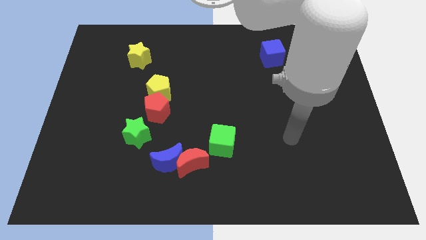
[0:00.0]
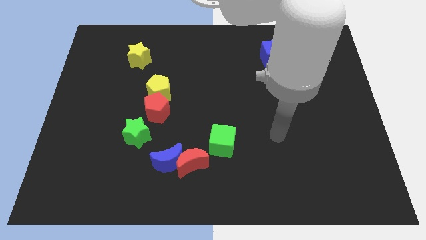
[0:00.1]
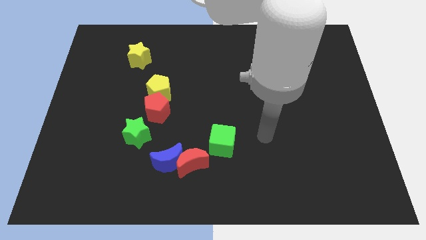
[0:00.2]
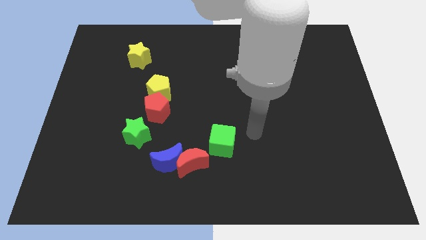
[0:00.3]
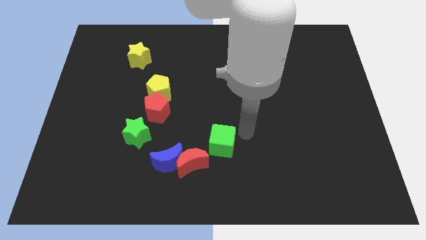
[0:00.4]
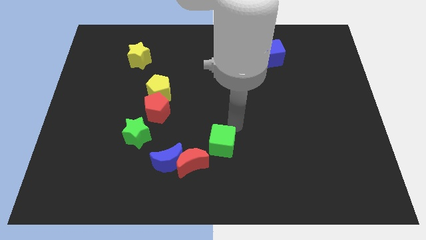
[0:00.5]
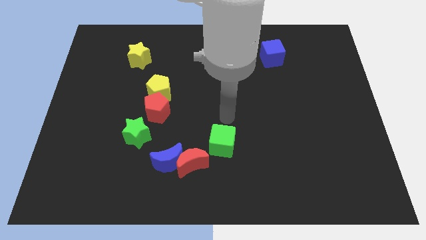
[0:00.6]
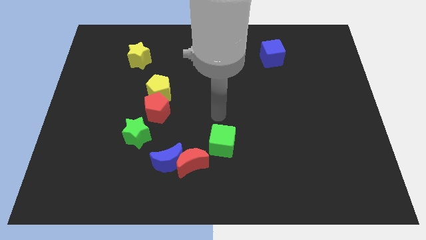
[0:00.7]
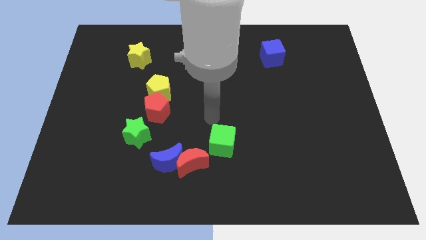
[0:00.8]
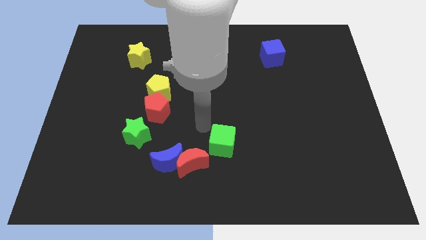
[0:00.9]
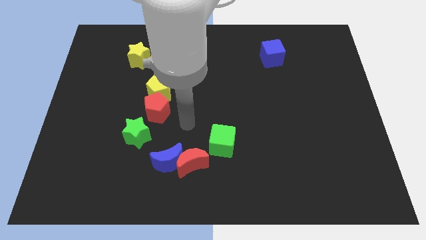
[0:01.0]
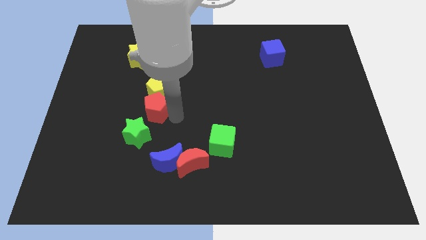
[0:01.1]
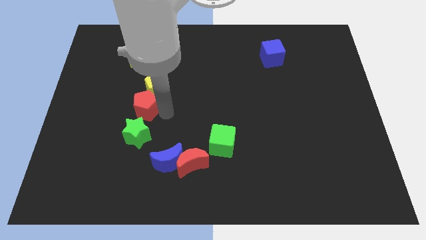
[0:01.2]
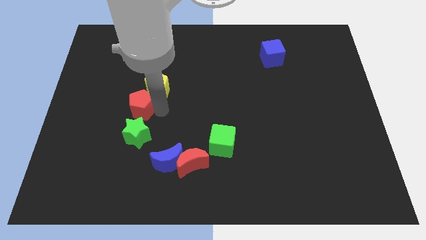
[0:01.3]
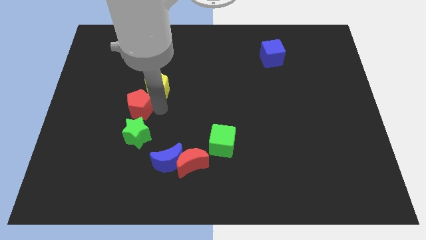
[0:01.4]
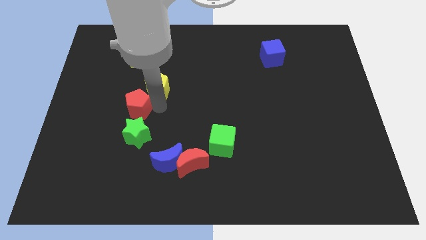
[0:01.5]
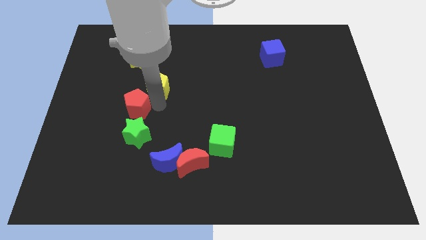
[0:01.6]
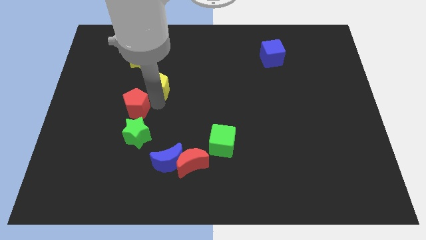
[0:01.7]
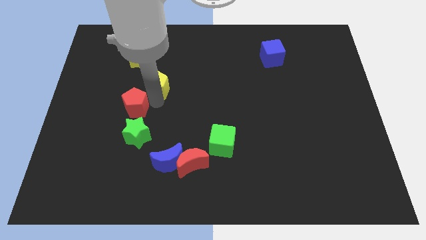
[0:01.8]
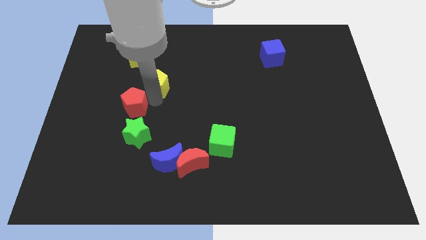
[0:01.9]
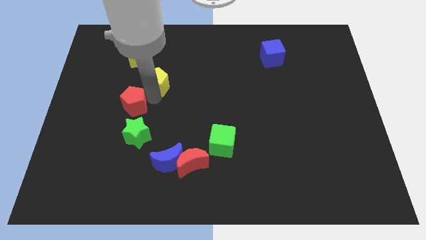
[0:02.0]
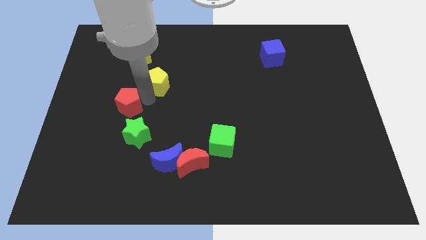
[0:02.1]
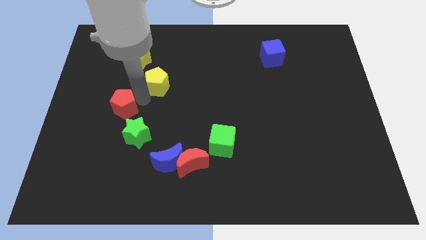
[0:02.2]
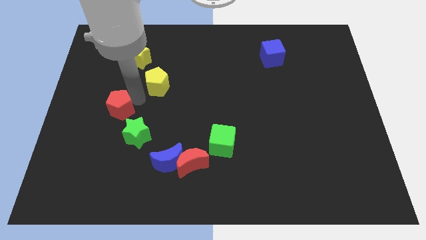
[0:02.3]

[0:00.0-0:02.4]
separate the yellow pentagon from the red pentagon

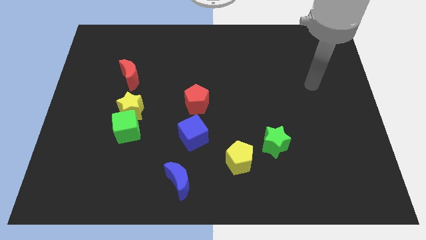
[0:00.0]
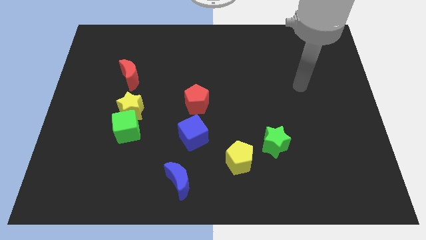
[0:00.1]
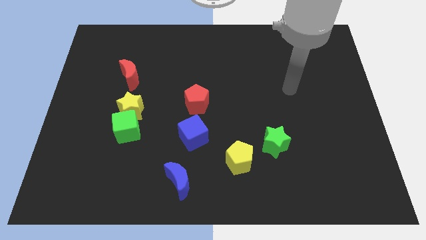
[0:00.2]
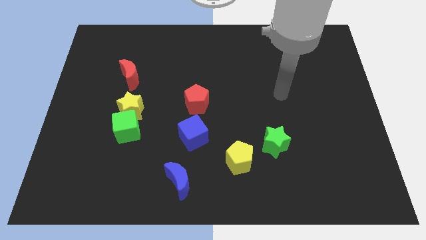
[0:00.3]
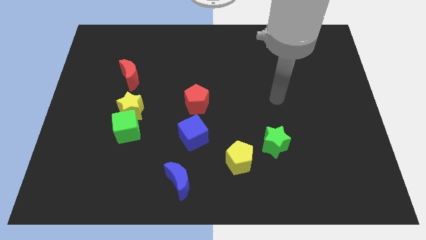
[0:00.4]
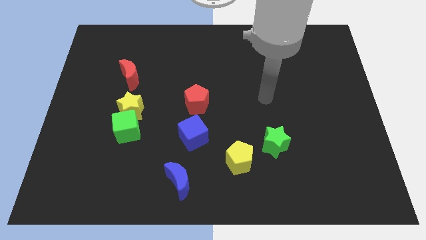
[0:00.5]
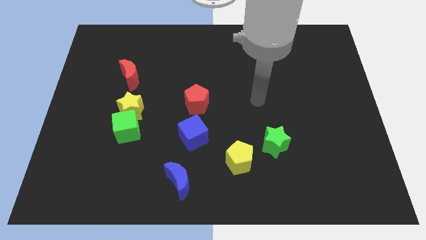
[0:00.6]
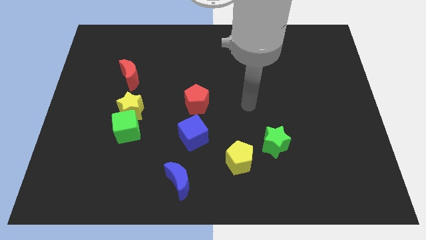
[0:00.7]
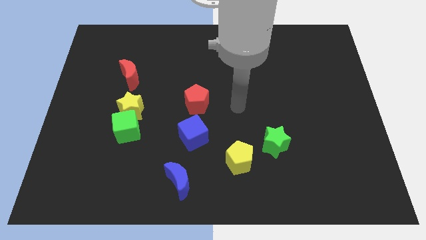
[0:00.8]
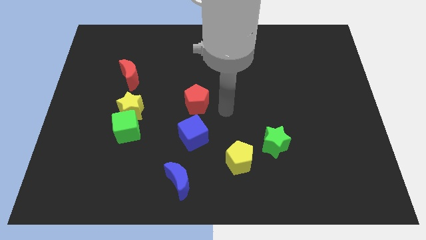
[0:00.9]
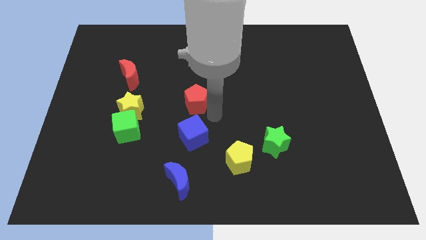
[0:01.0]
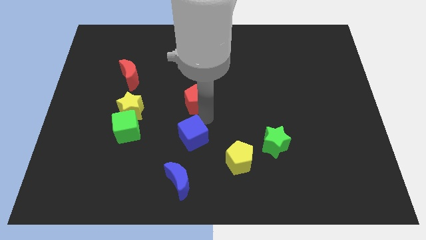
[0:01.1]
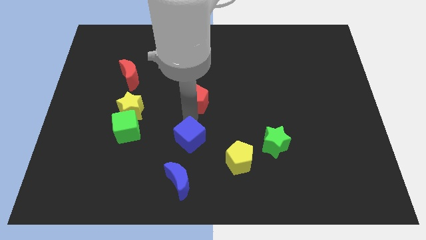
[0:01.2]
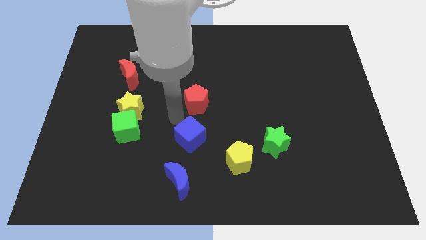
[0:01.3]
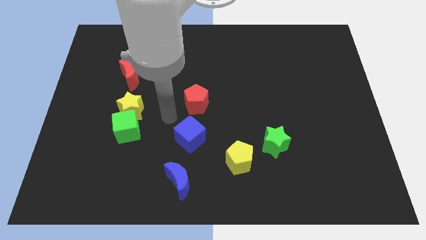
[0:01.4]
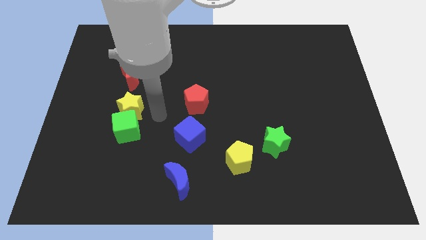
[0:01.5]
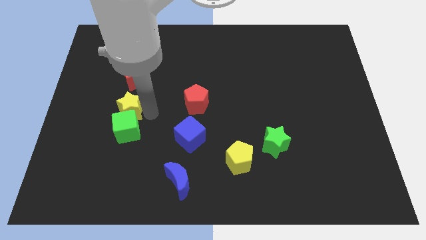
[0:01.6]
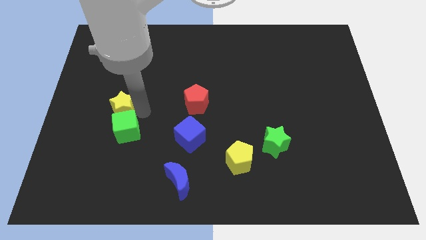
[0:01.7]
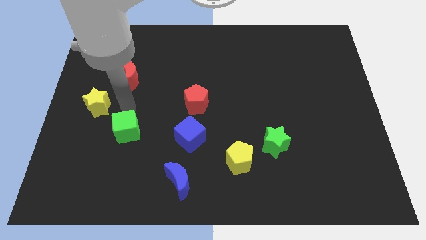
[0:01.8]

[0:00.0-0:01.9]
pull the green cube apart from the yellow star

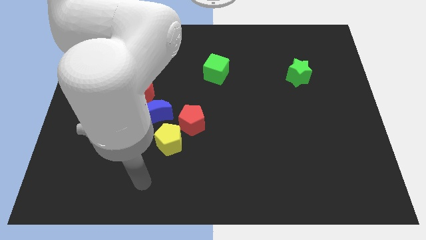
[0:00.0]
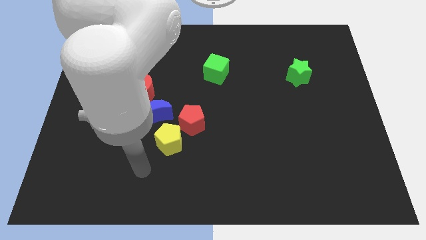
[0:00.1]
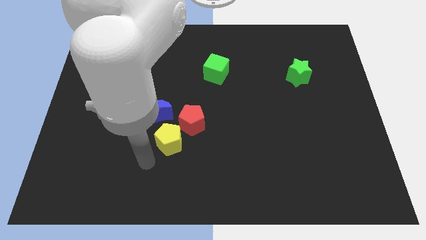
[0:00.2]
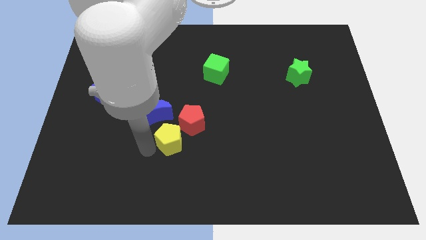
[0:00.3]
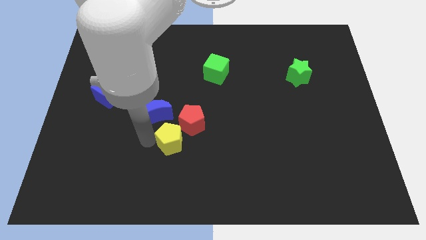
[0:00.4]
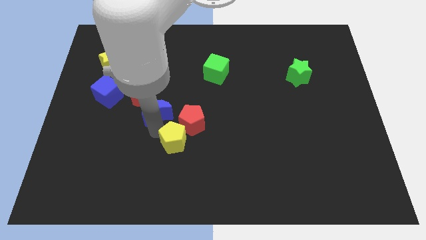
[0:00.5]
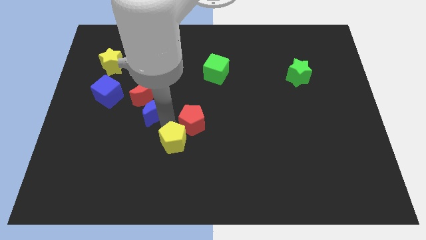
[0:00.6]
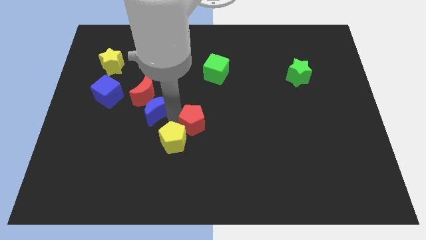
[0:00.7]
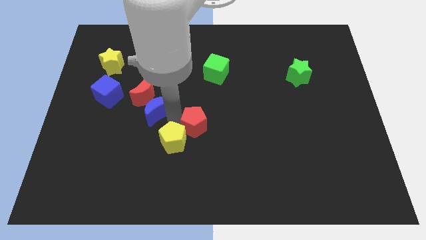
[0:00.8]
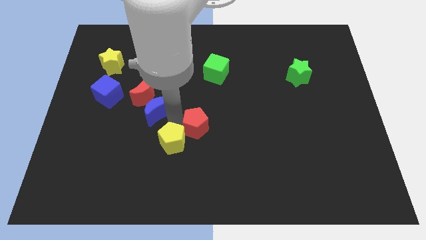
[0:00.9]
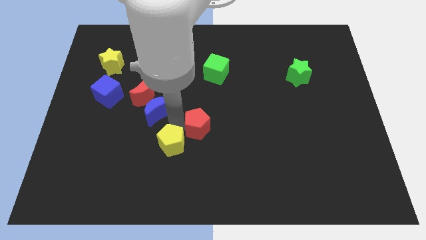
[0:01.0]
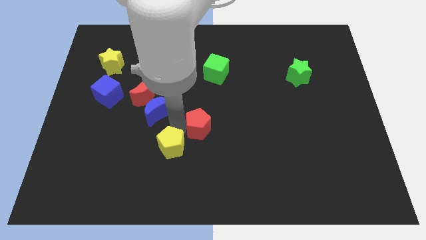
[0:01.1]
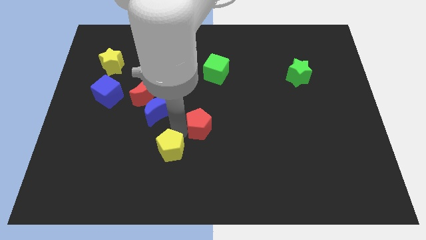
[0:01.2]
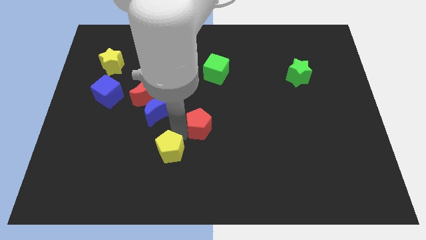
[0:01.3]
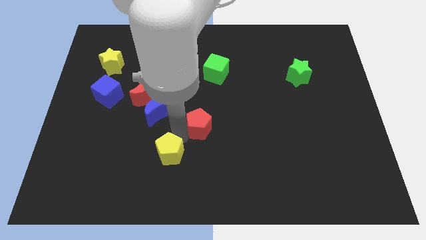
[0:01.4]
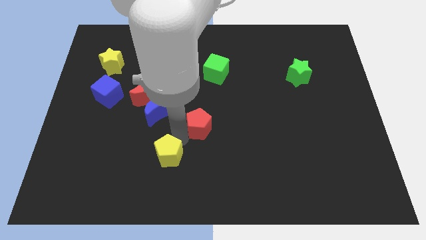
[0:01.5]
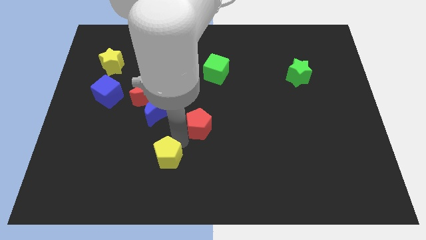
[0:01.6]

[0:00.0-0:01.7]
pull the yellow pentagon apart from the red pentagon and blue moon

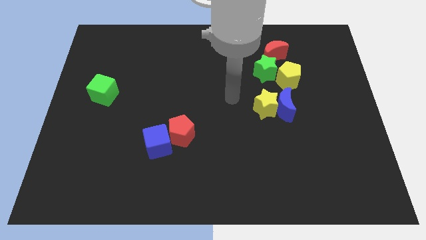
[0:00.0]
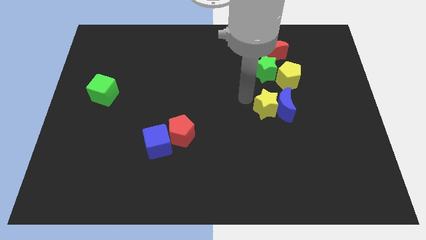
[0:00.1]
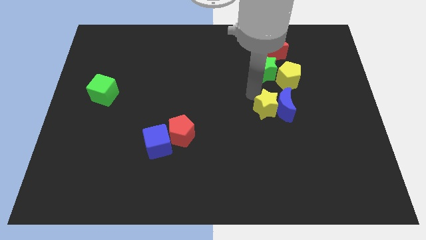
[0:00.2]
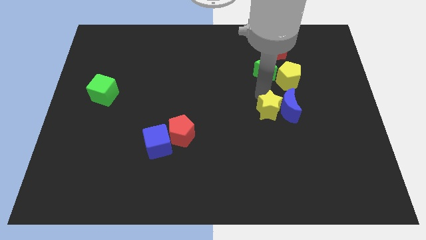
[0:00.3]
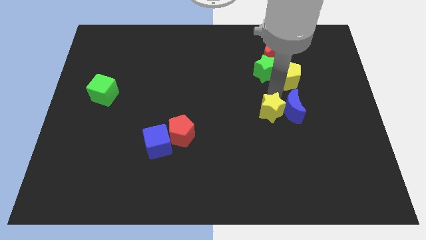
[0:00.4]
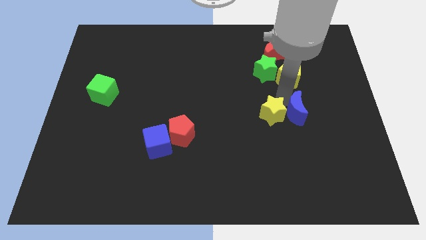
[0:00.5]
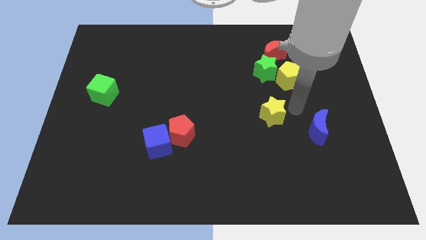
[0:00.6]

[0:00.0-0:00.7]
pull the yellow star apart from the blue moon

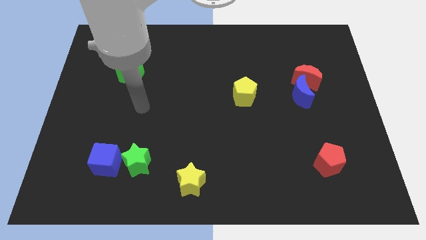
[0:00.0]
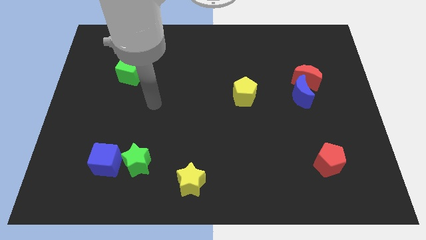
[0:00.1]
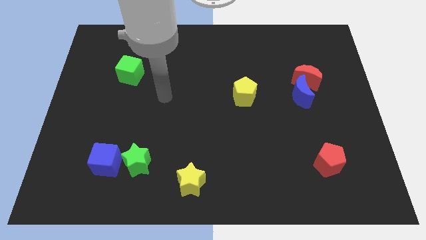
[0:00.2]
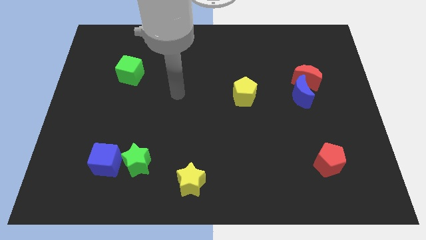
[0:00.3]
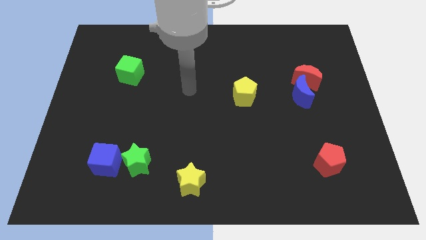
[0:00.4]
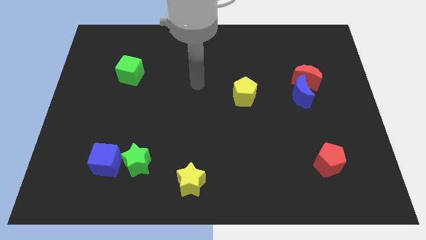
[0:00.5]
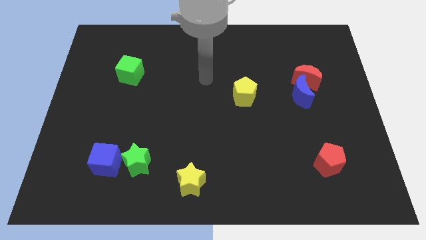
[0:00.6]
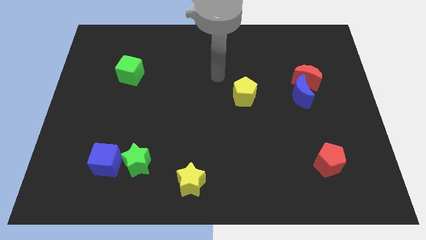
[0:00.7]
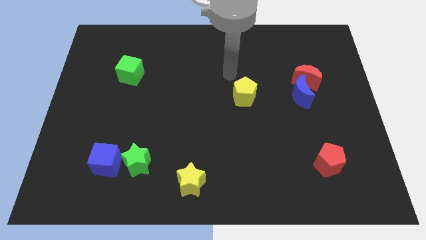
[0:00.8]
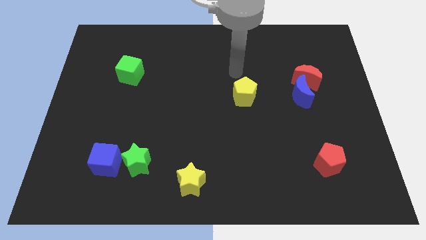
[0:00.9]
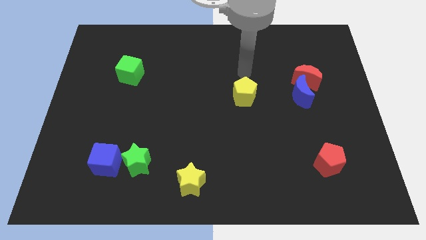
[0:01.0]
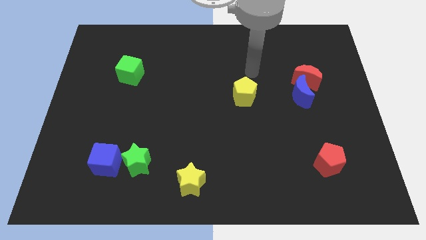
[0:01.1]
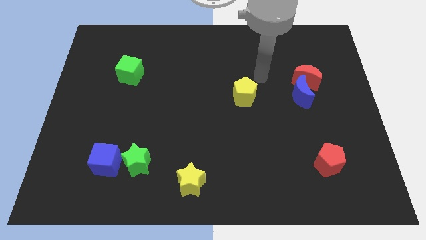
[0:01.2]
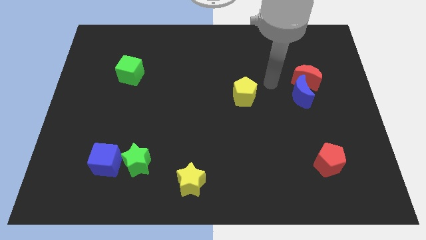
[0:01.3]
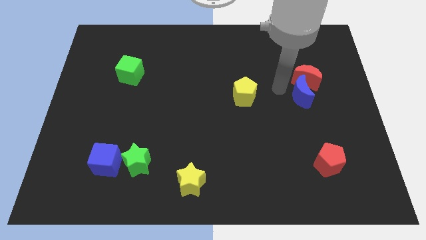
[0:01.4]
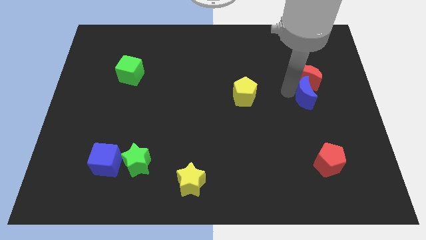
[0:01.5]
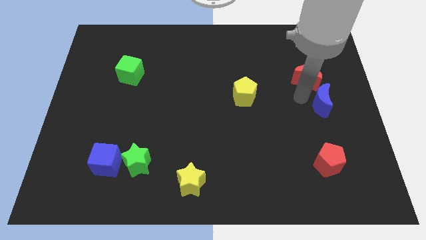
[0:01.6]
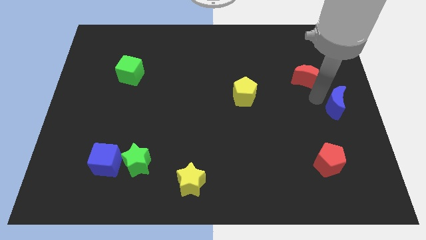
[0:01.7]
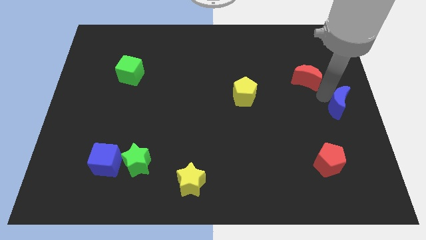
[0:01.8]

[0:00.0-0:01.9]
pull the red moon apart from the blue moon

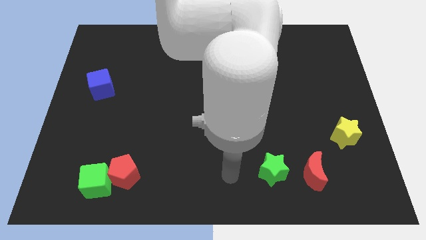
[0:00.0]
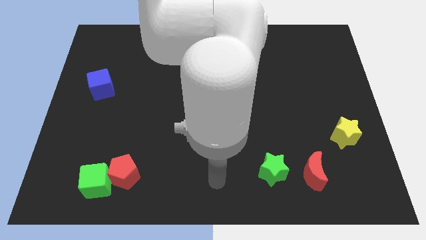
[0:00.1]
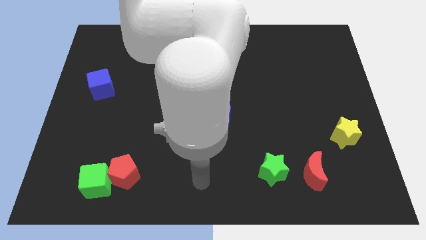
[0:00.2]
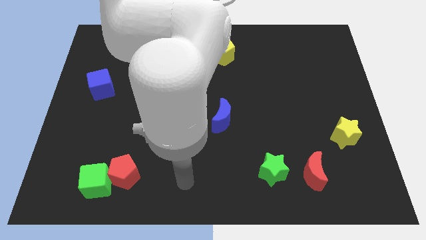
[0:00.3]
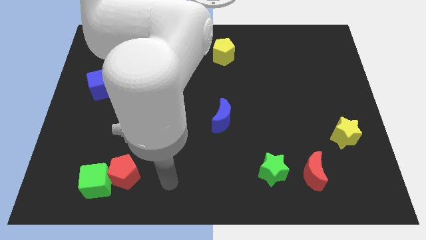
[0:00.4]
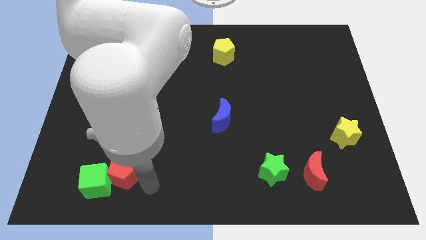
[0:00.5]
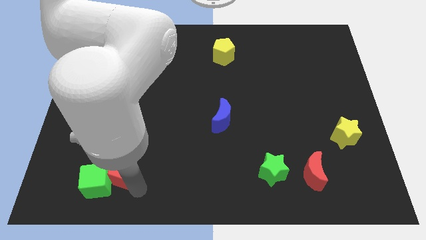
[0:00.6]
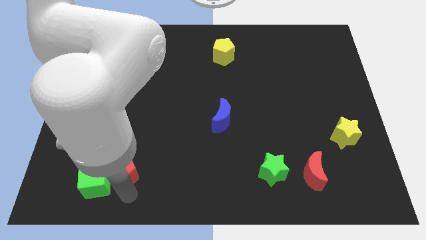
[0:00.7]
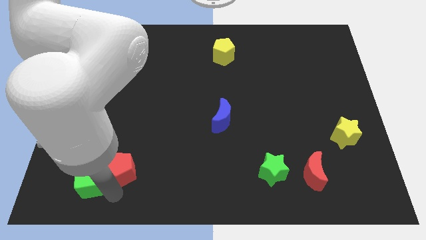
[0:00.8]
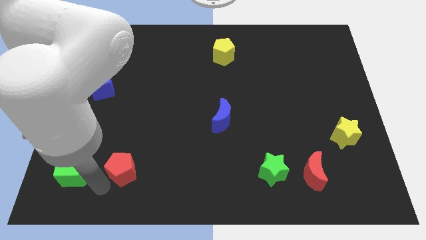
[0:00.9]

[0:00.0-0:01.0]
separate the red pentagon from the green cube
